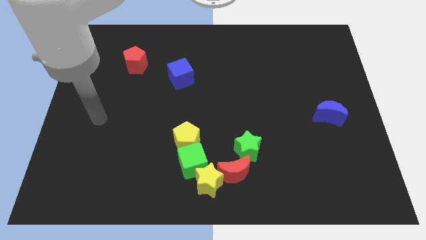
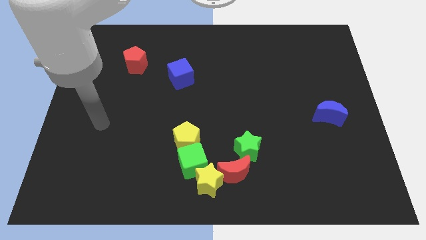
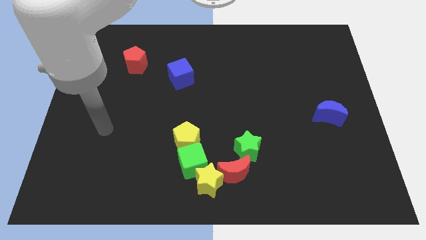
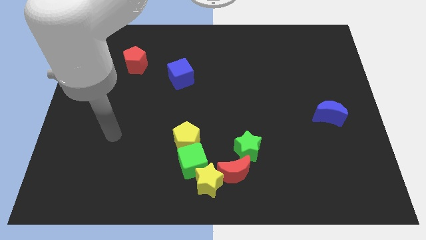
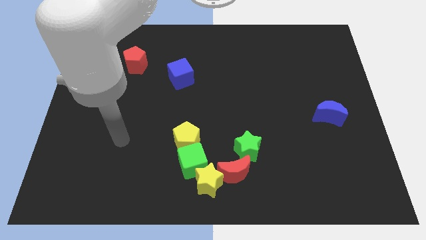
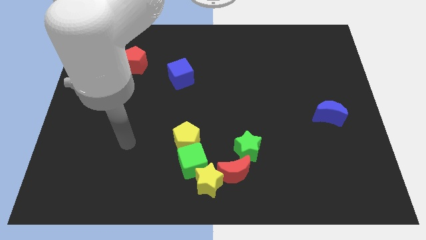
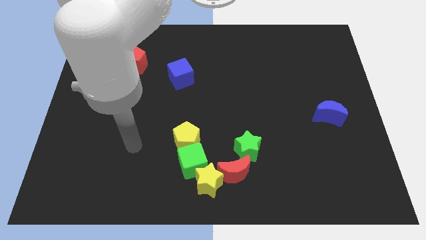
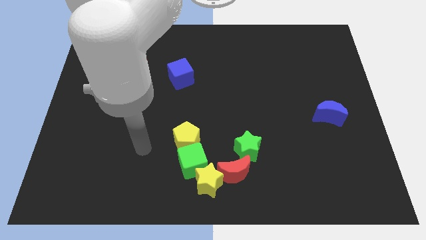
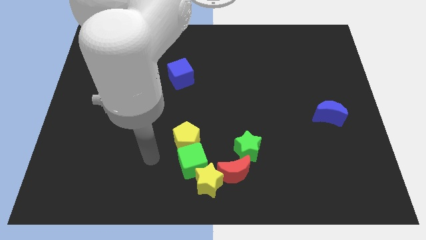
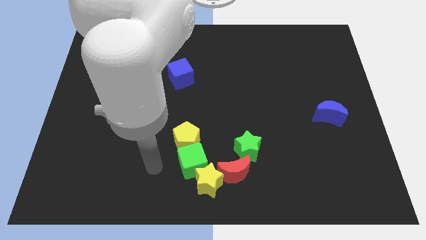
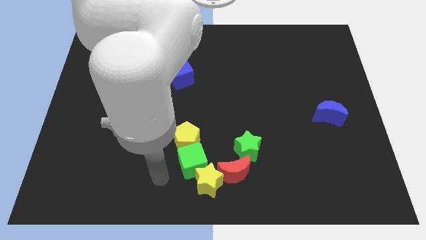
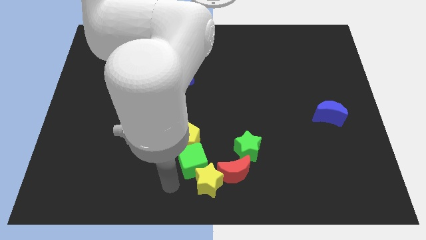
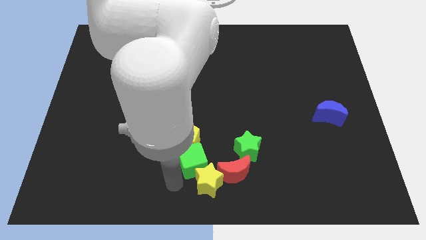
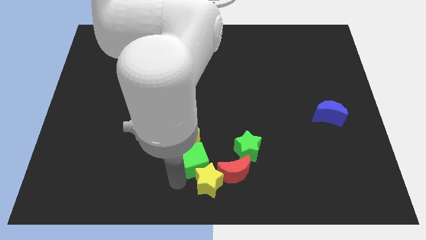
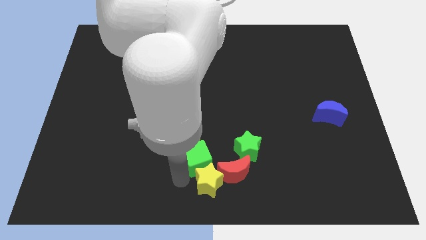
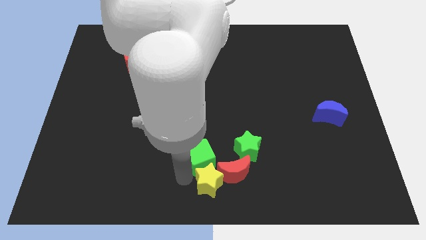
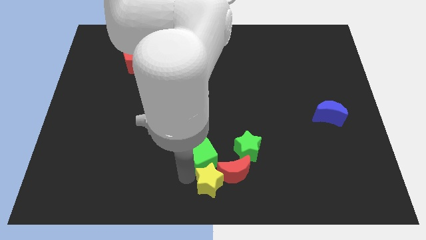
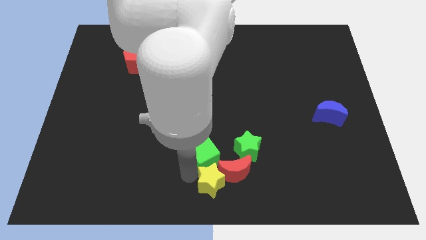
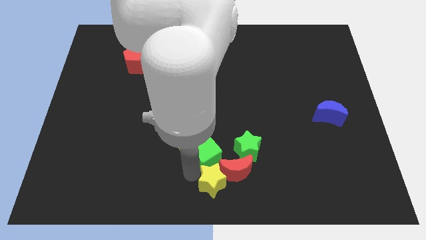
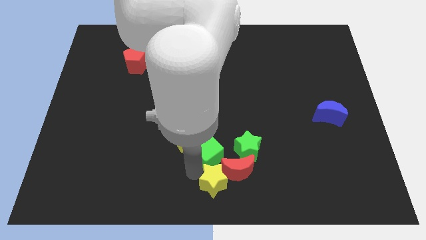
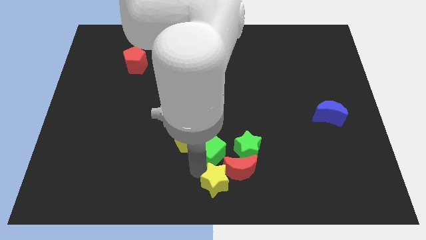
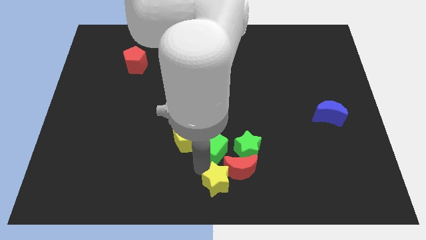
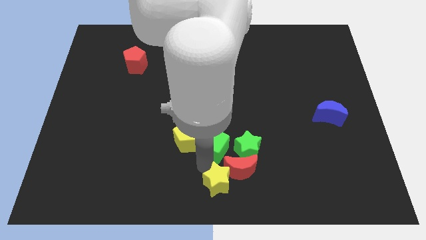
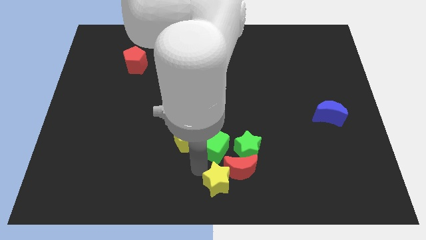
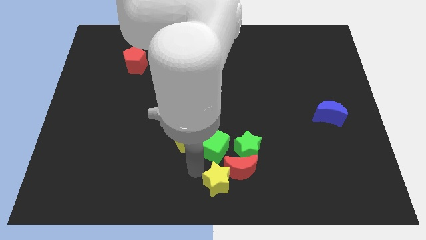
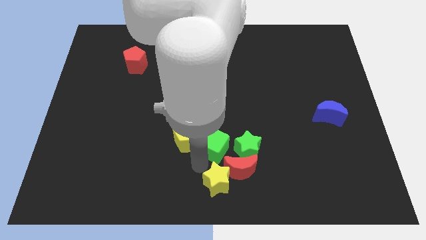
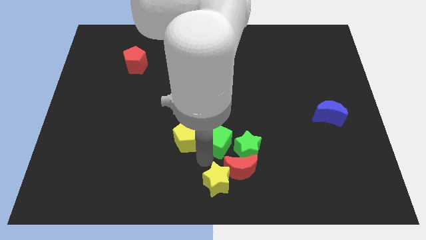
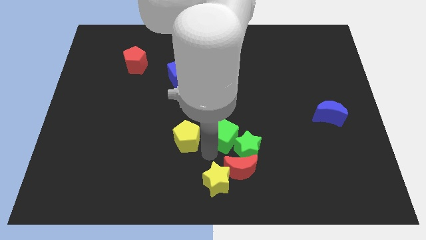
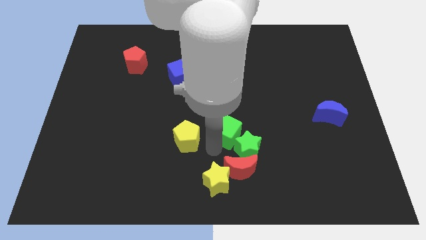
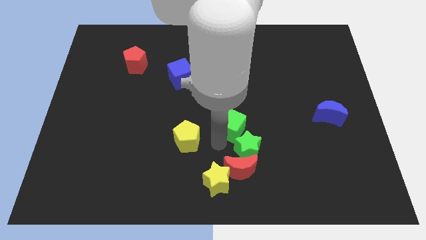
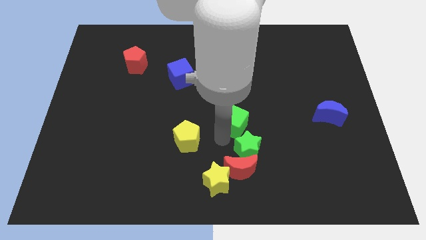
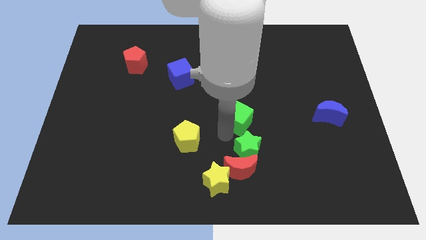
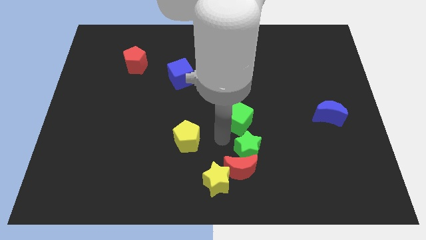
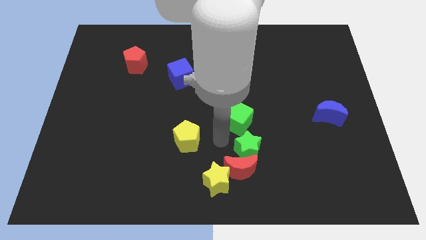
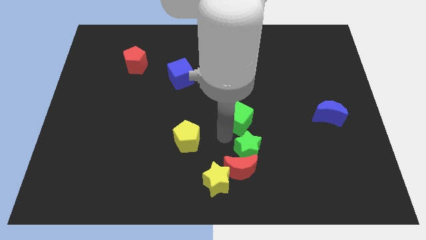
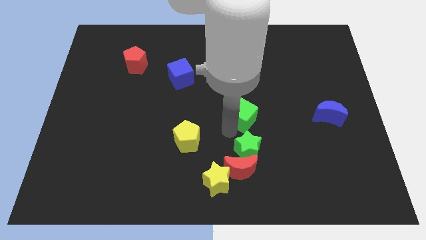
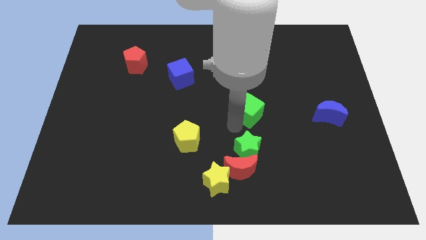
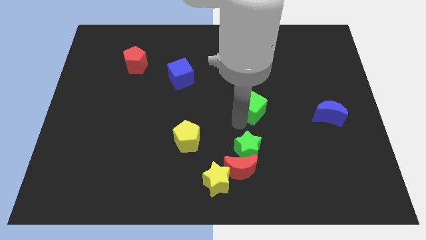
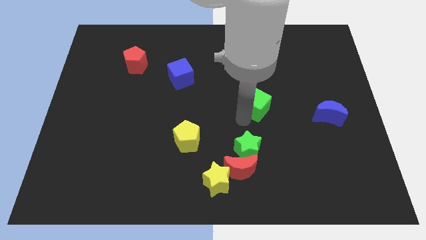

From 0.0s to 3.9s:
push the green cube upwards and to the right

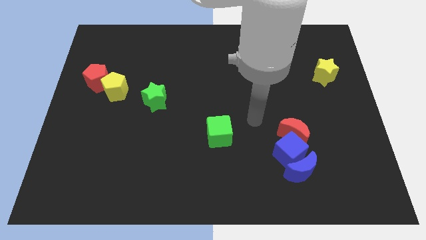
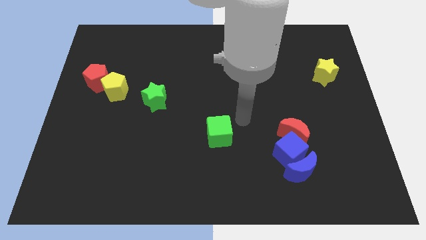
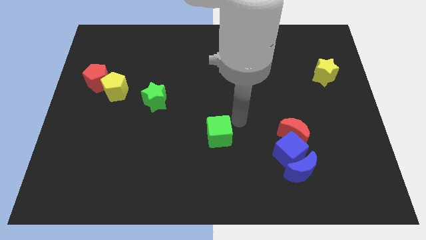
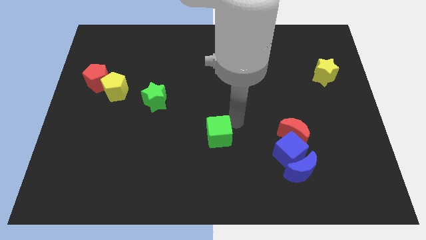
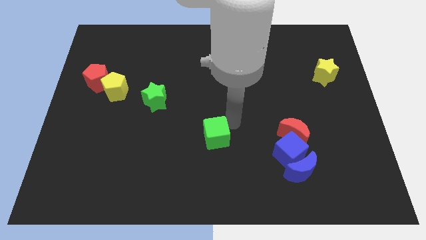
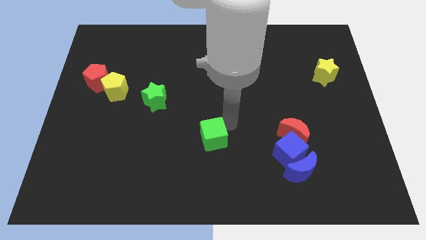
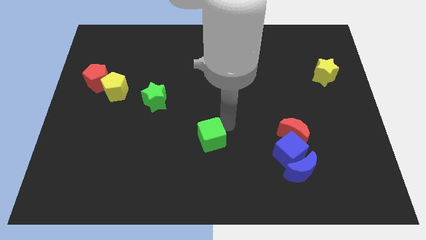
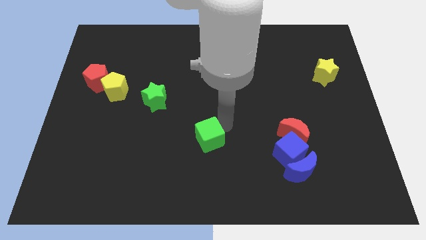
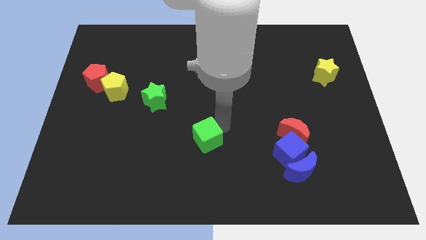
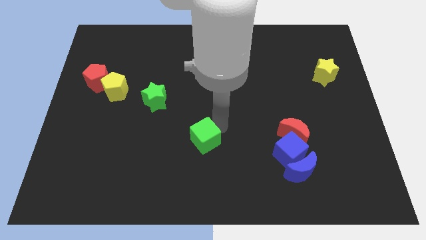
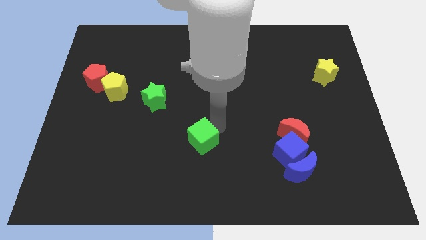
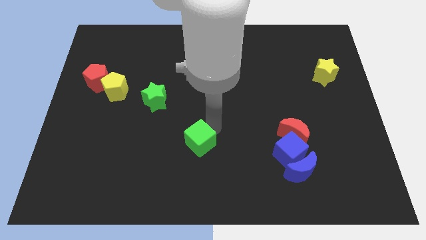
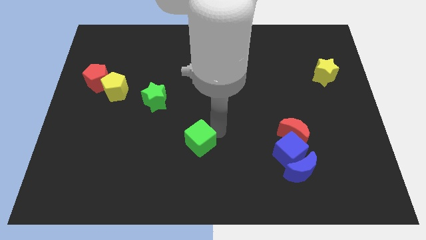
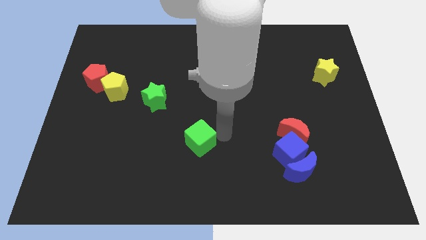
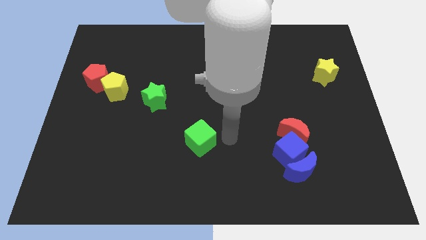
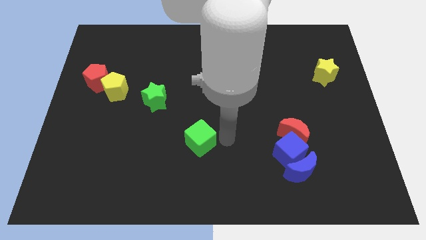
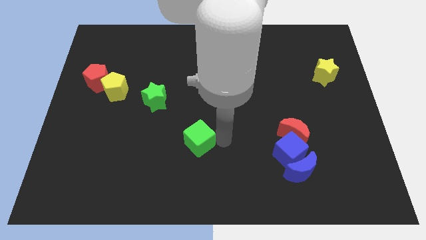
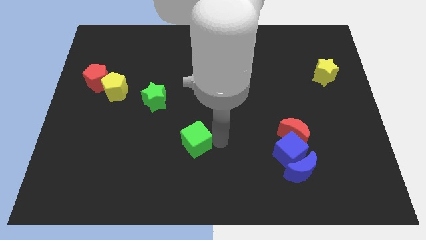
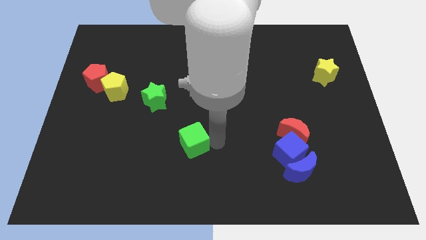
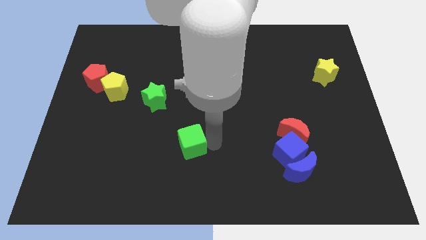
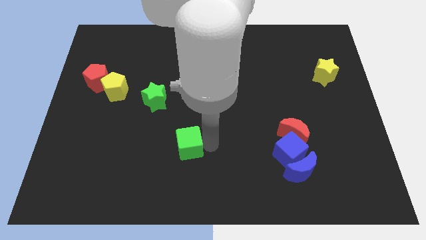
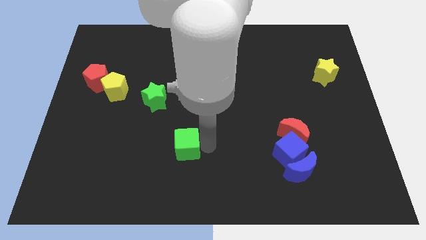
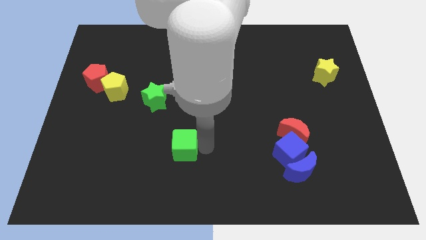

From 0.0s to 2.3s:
move the green cube slightly left

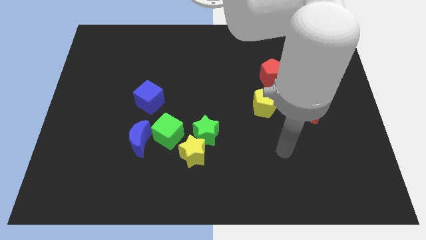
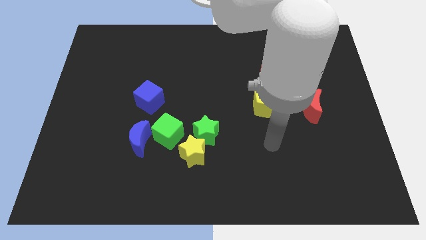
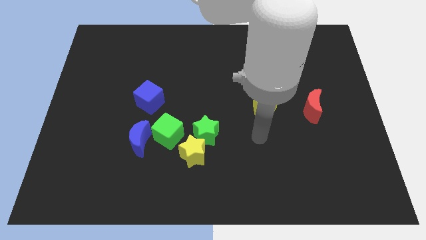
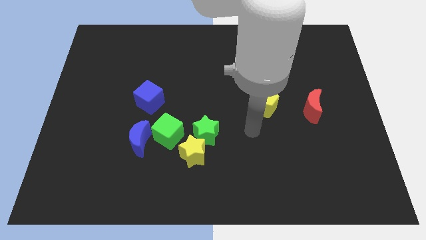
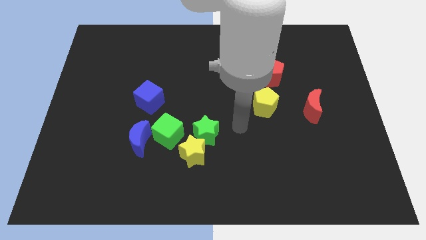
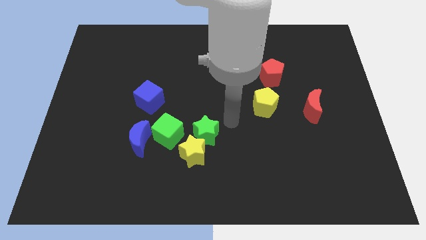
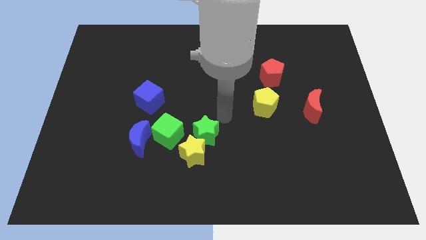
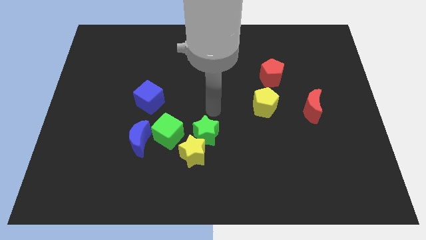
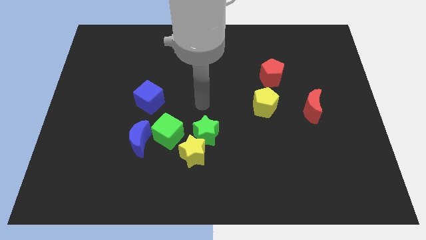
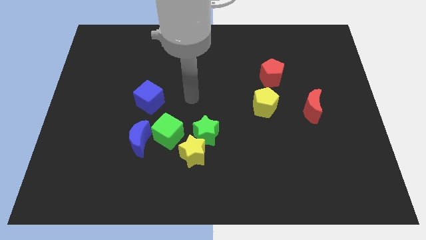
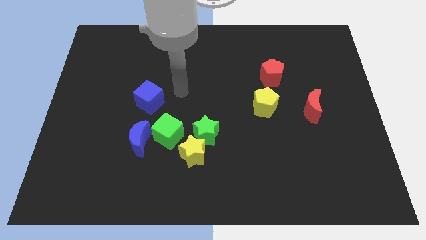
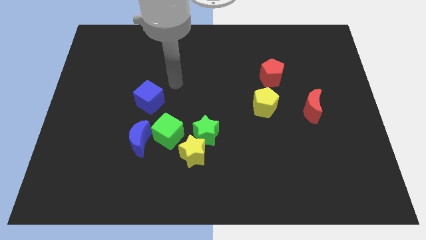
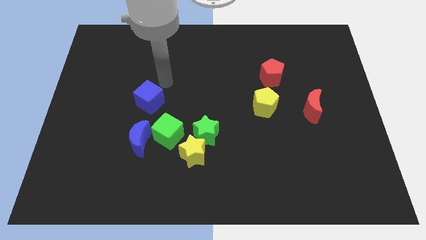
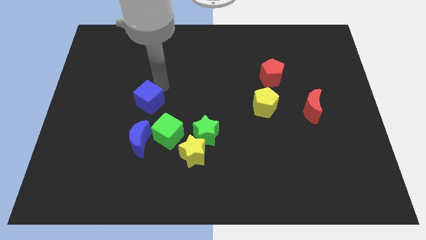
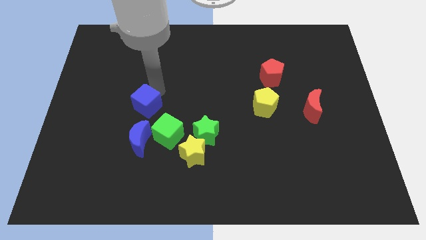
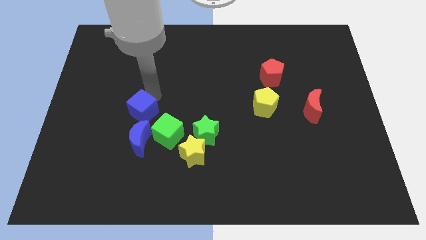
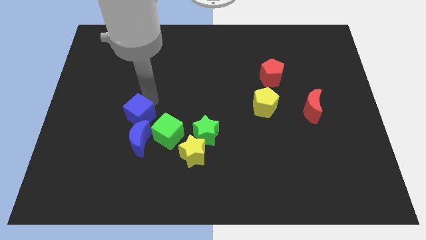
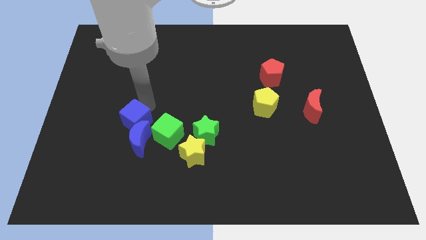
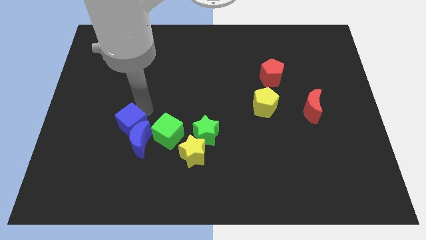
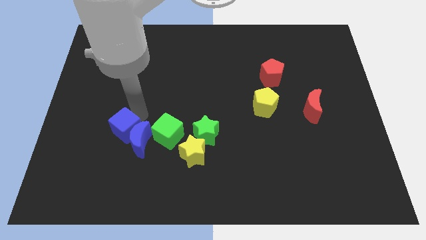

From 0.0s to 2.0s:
slightly slide the blue cube down
